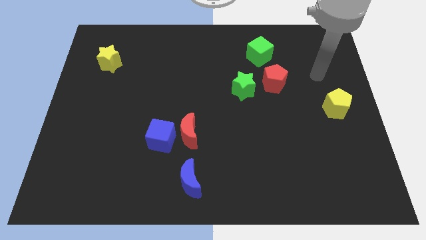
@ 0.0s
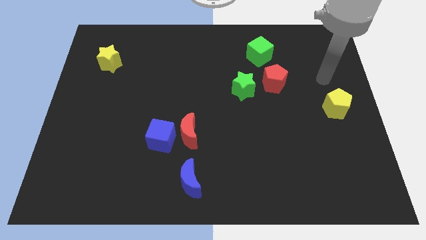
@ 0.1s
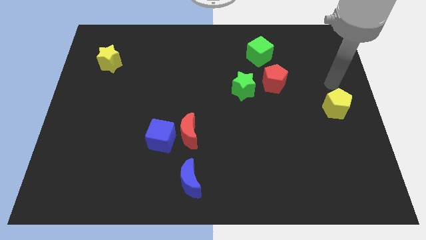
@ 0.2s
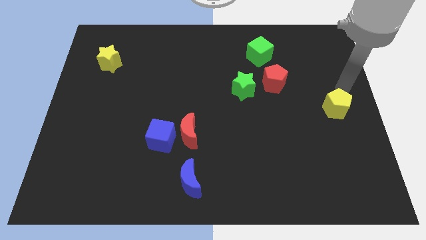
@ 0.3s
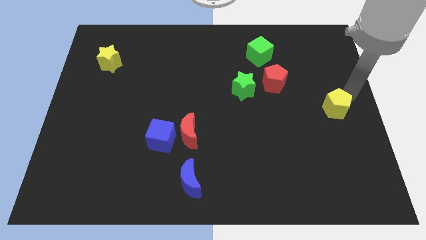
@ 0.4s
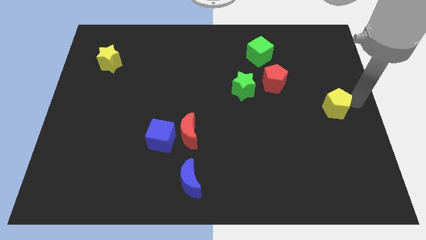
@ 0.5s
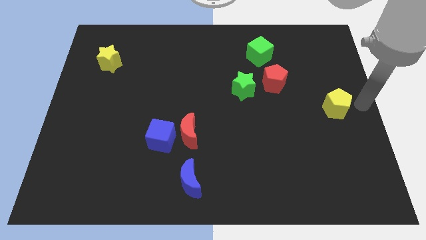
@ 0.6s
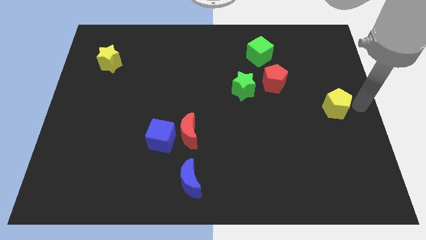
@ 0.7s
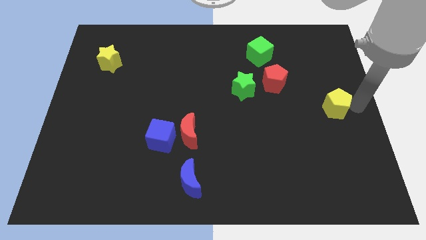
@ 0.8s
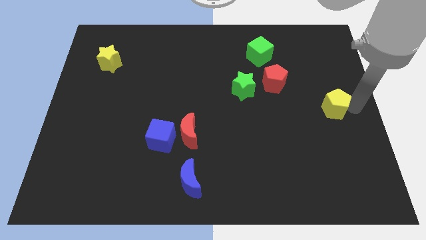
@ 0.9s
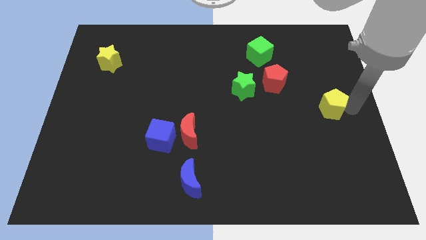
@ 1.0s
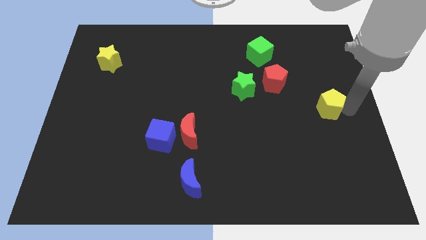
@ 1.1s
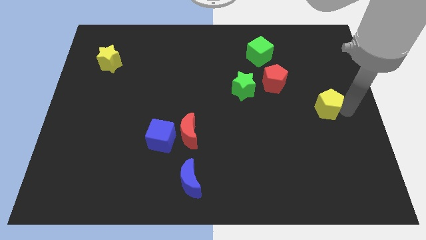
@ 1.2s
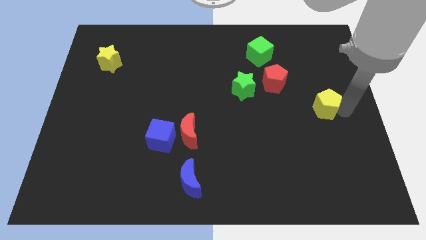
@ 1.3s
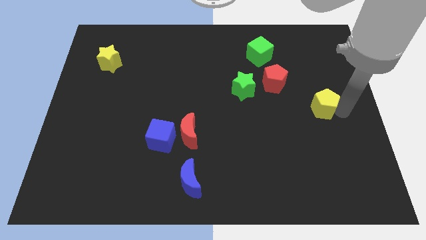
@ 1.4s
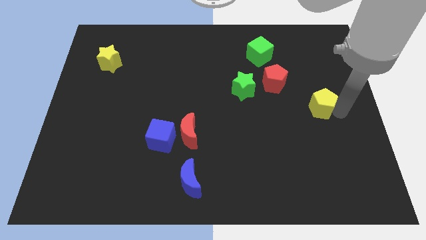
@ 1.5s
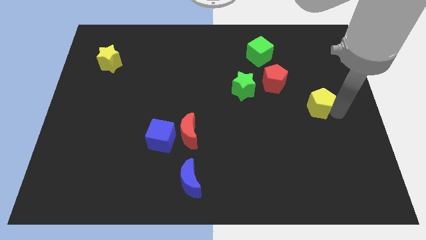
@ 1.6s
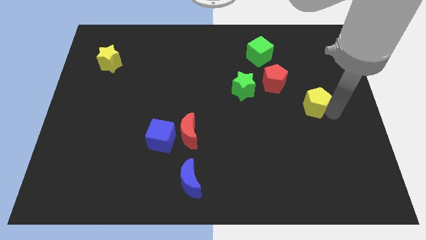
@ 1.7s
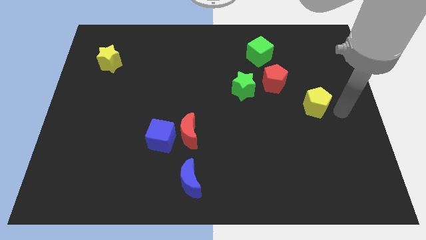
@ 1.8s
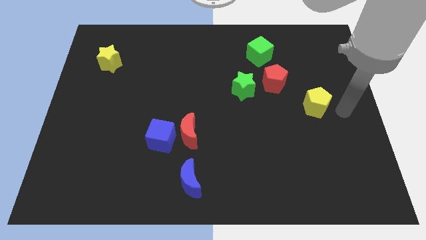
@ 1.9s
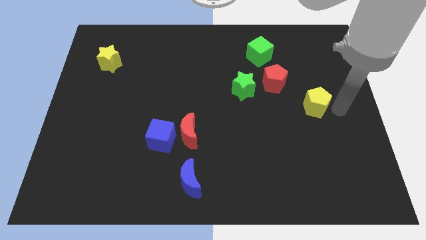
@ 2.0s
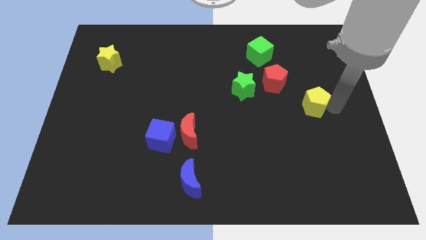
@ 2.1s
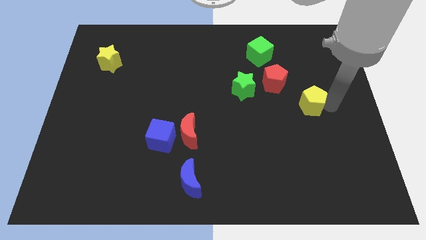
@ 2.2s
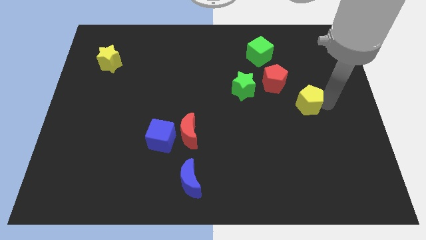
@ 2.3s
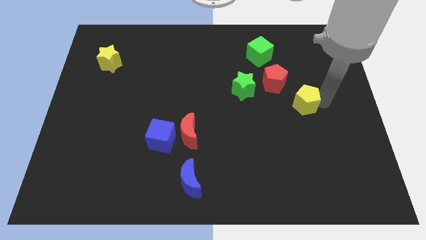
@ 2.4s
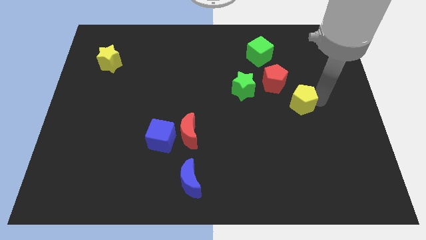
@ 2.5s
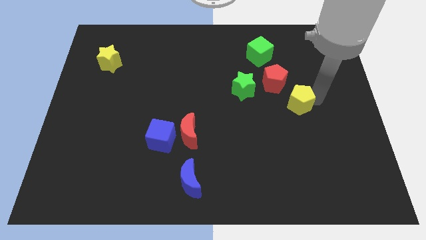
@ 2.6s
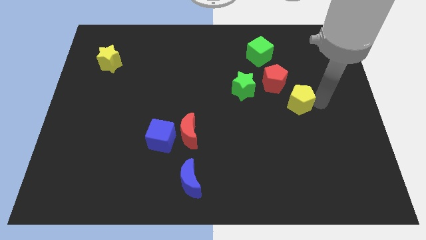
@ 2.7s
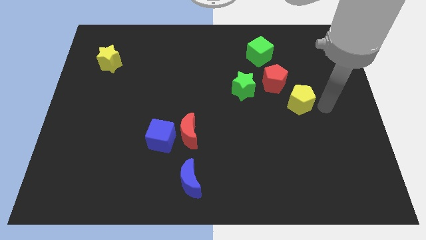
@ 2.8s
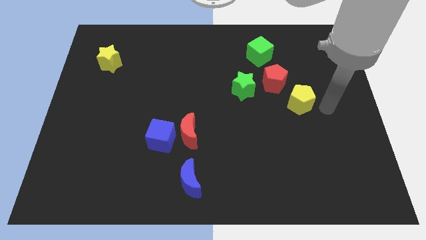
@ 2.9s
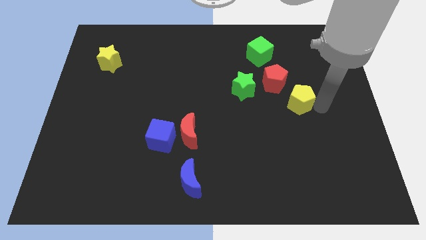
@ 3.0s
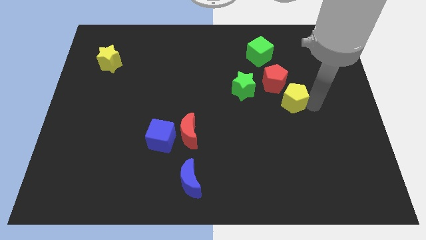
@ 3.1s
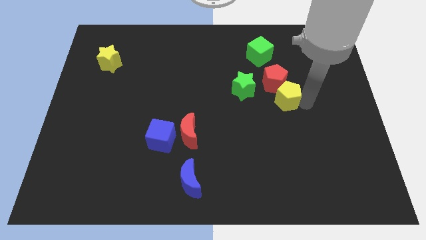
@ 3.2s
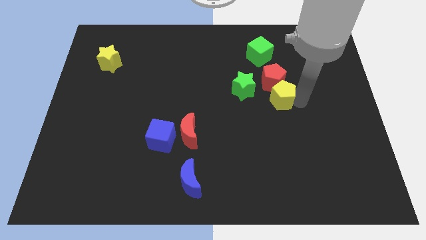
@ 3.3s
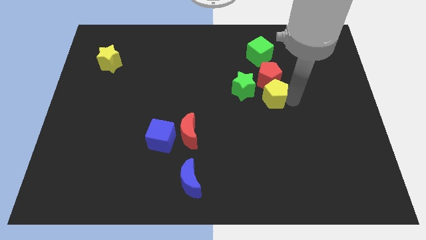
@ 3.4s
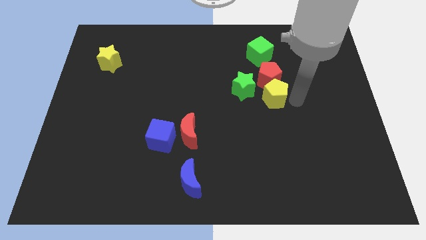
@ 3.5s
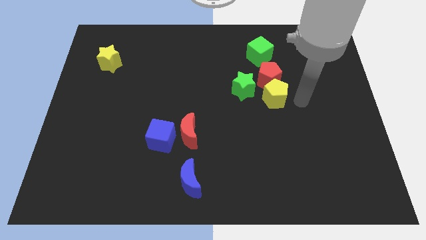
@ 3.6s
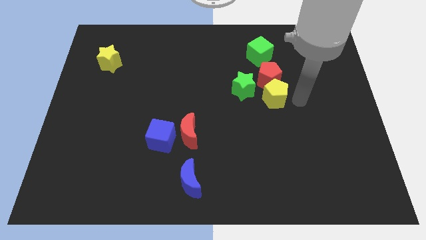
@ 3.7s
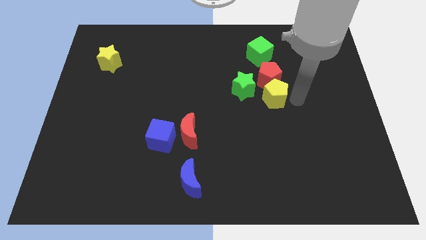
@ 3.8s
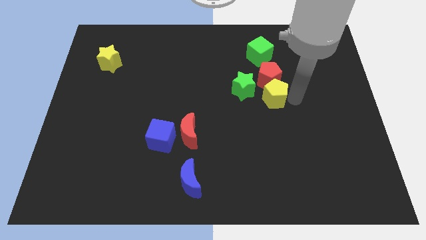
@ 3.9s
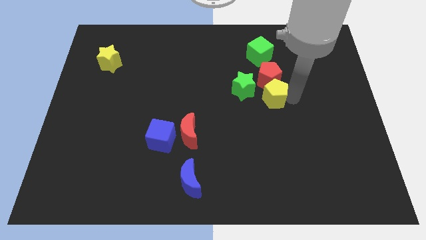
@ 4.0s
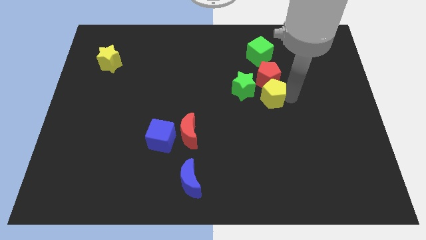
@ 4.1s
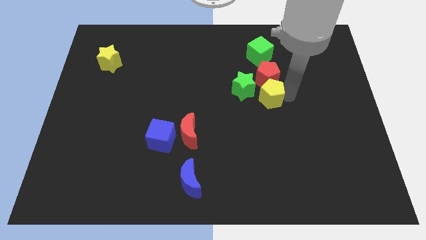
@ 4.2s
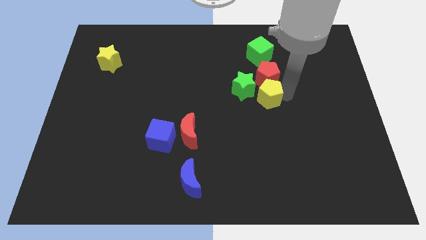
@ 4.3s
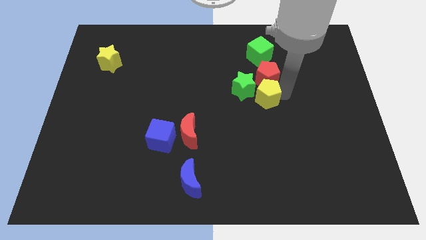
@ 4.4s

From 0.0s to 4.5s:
put the yellow pentagon towards the green star

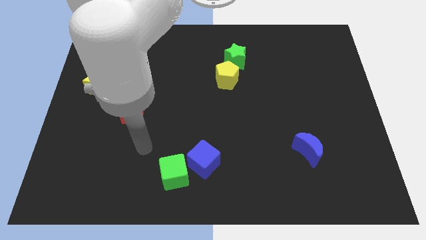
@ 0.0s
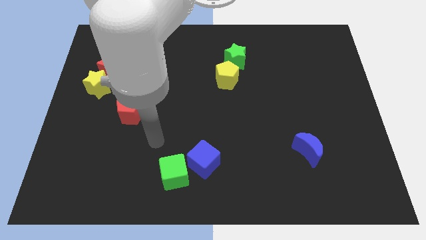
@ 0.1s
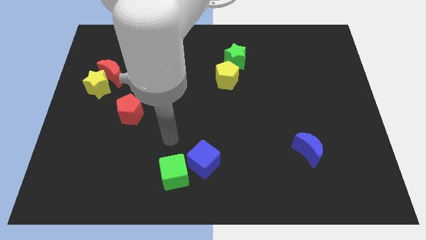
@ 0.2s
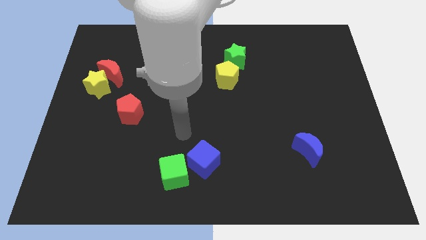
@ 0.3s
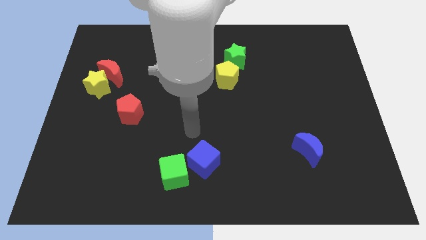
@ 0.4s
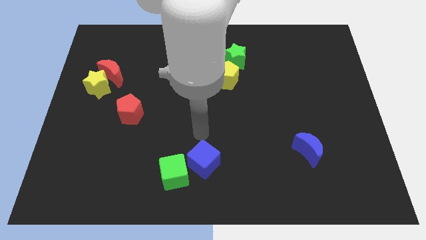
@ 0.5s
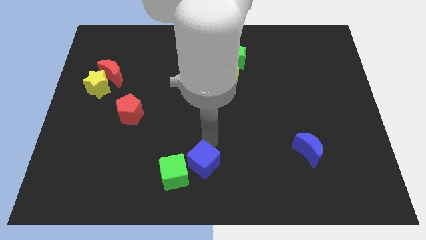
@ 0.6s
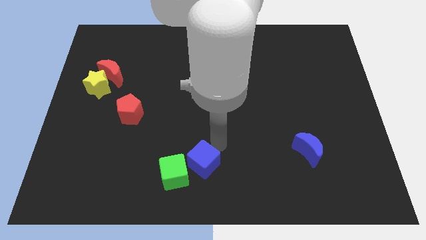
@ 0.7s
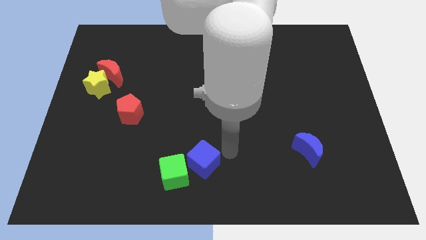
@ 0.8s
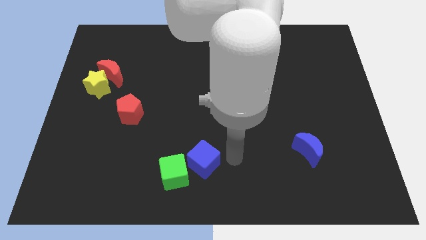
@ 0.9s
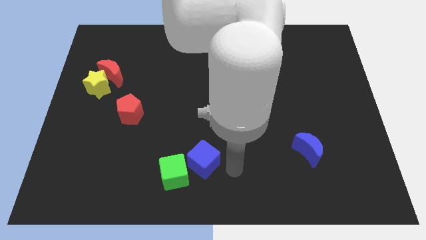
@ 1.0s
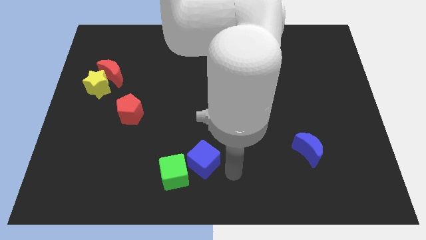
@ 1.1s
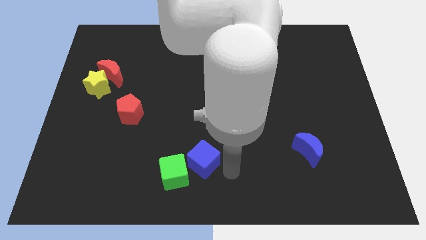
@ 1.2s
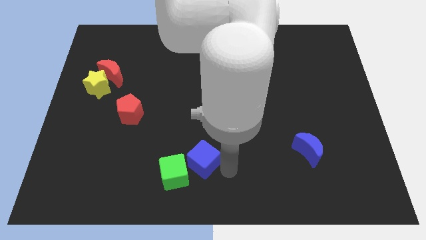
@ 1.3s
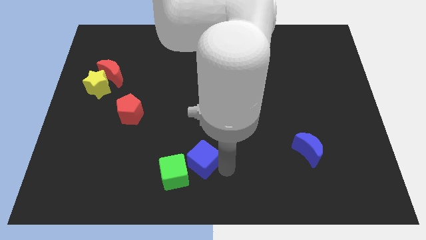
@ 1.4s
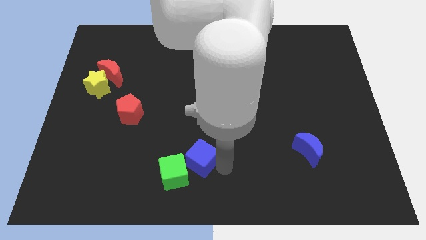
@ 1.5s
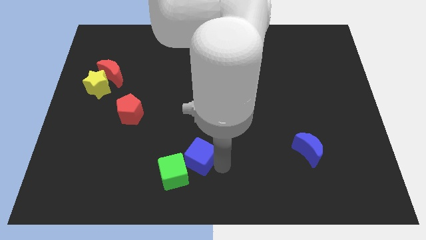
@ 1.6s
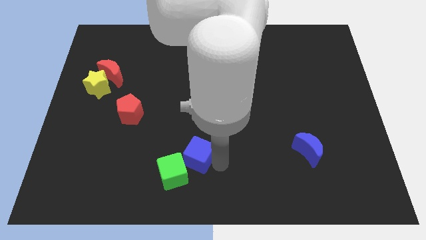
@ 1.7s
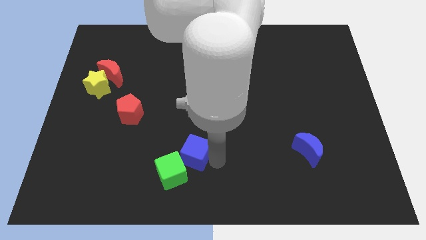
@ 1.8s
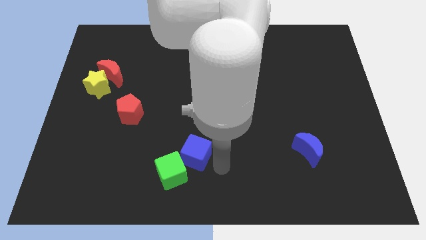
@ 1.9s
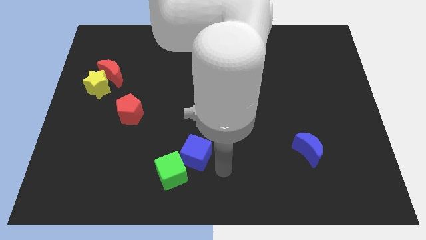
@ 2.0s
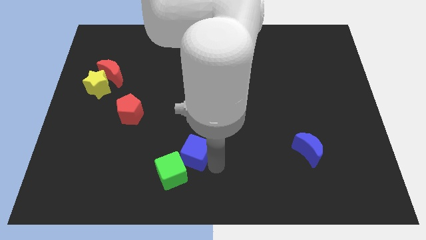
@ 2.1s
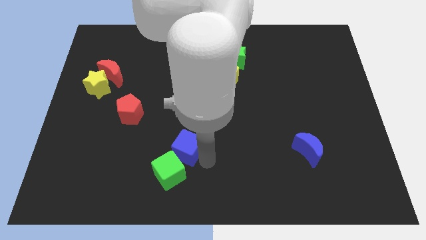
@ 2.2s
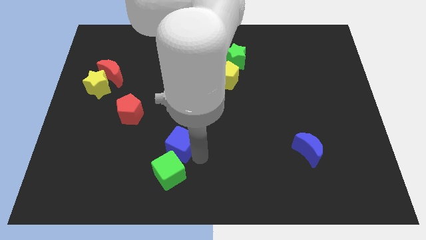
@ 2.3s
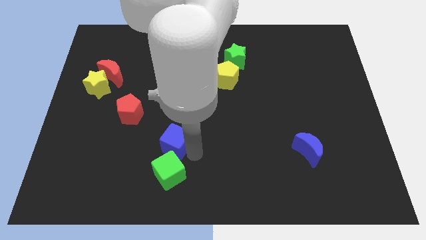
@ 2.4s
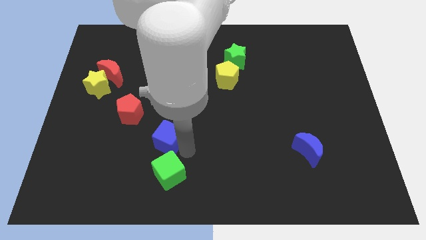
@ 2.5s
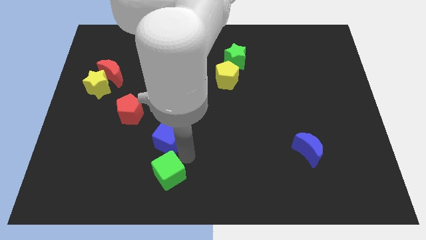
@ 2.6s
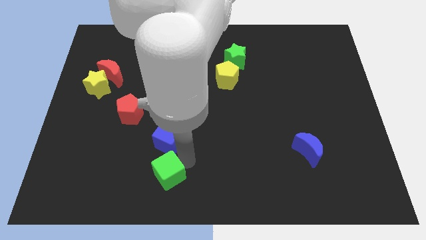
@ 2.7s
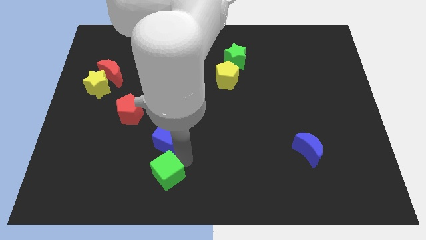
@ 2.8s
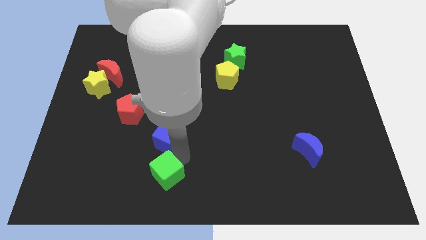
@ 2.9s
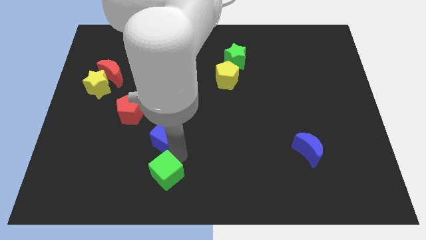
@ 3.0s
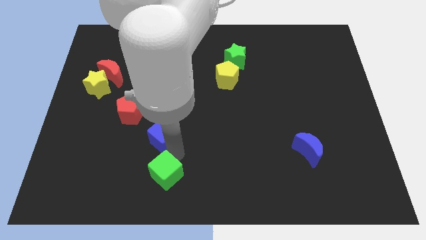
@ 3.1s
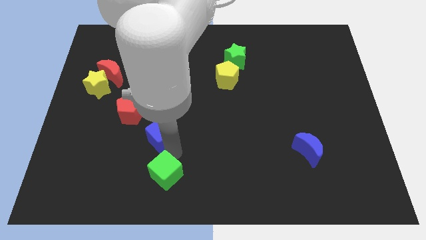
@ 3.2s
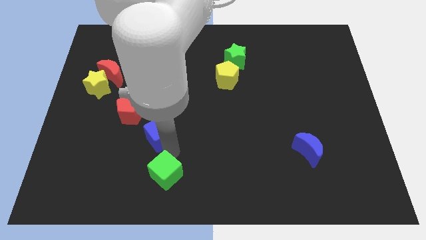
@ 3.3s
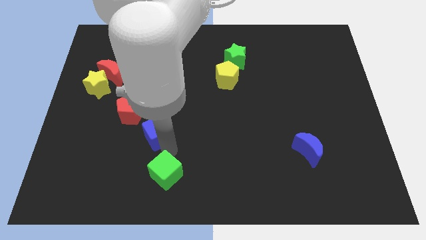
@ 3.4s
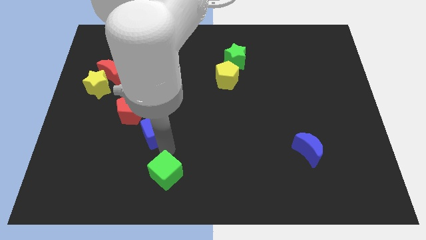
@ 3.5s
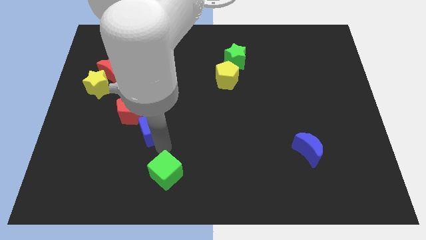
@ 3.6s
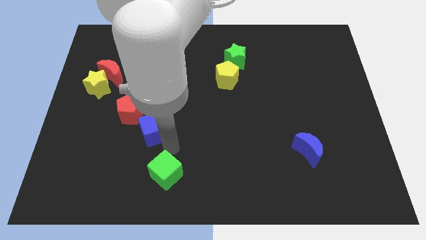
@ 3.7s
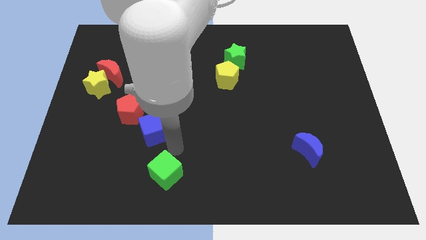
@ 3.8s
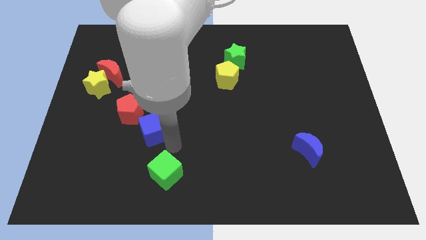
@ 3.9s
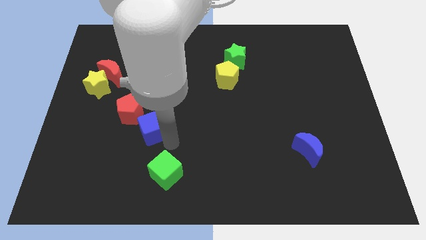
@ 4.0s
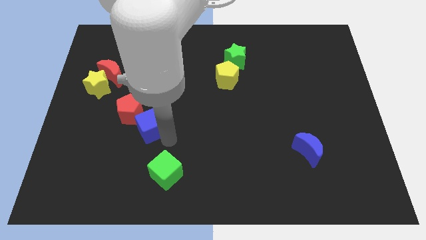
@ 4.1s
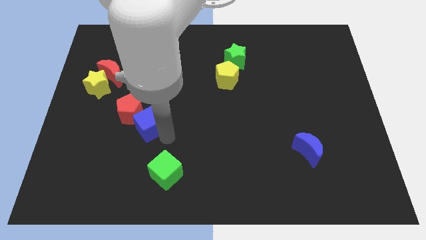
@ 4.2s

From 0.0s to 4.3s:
push the blue cube towards the red pentagon
